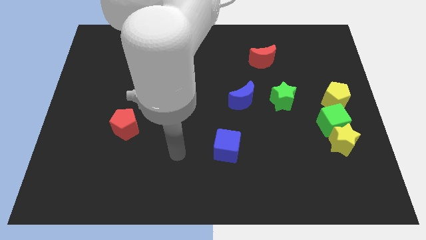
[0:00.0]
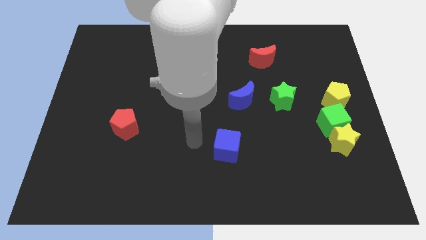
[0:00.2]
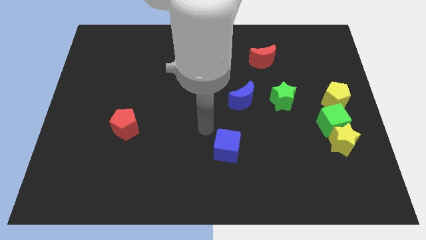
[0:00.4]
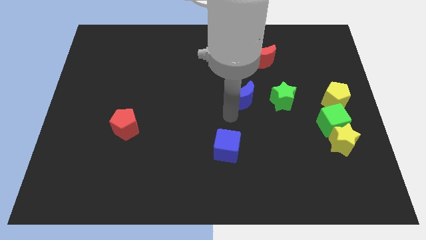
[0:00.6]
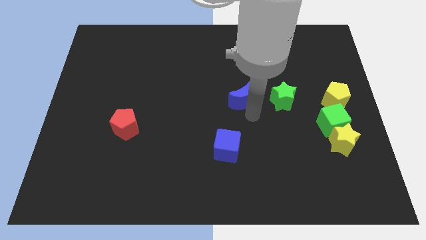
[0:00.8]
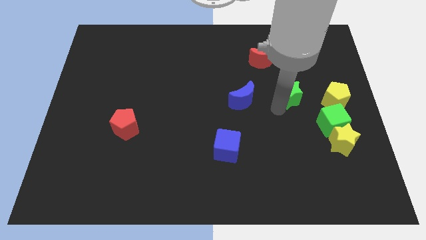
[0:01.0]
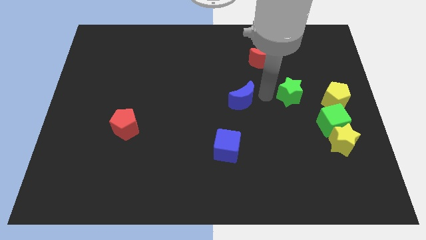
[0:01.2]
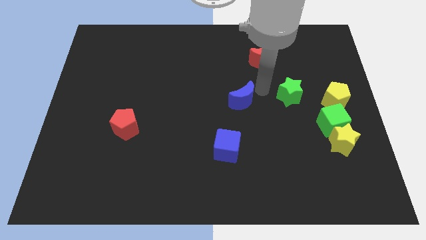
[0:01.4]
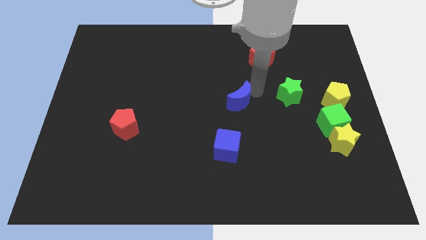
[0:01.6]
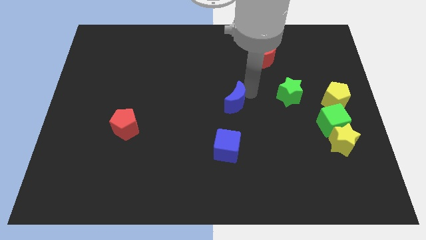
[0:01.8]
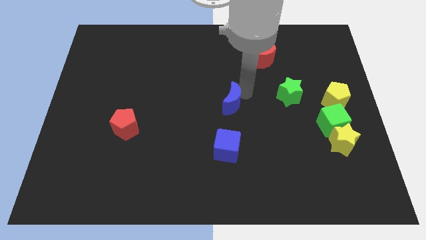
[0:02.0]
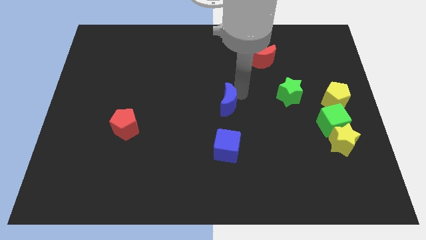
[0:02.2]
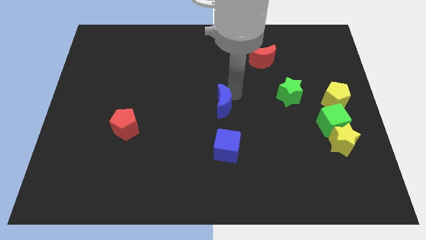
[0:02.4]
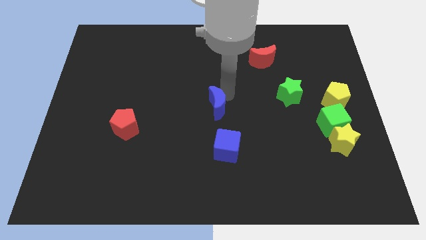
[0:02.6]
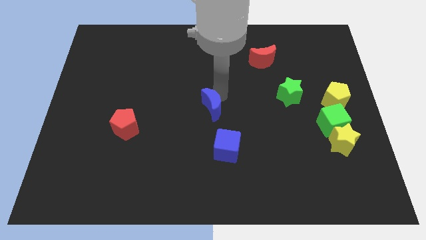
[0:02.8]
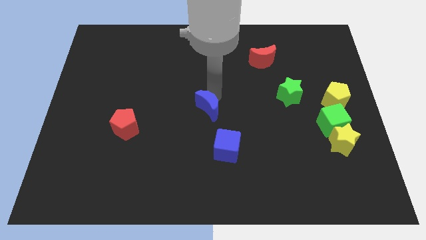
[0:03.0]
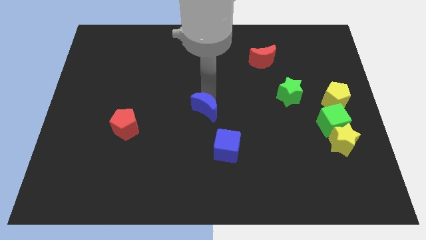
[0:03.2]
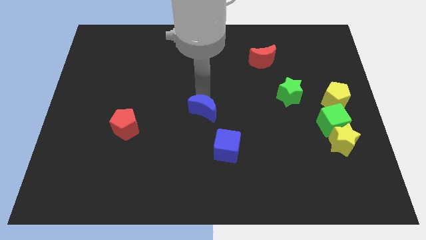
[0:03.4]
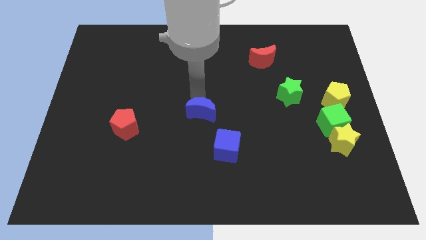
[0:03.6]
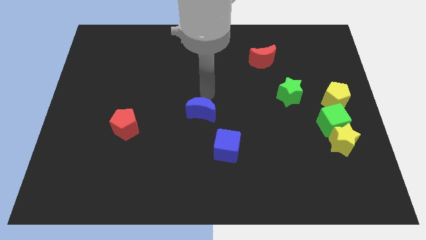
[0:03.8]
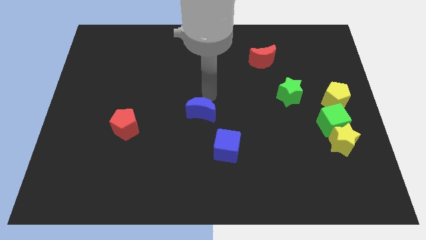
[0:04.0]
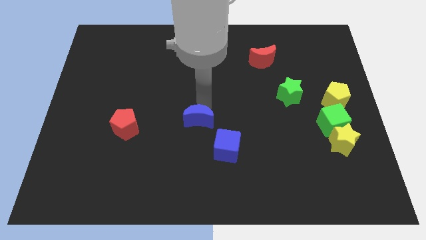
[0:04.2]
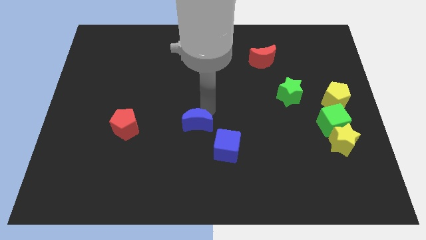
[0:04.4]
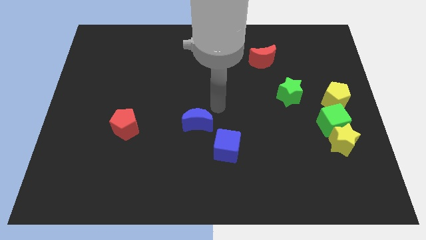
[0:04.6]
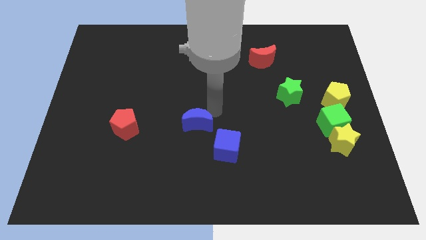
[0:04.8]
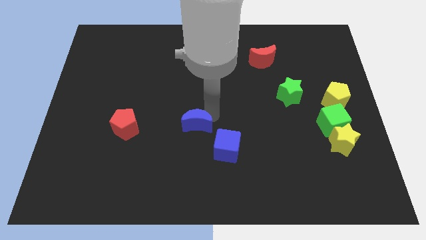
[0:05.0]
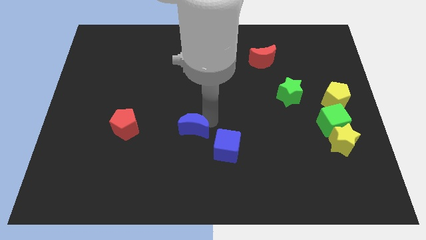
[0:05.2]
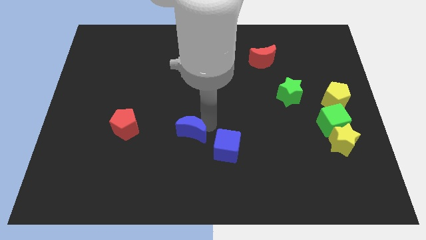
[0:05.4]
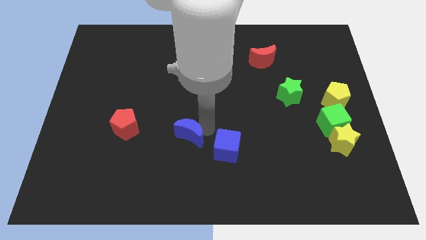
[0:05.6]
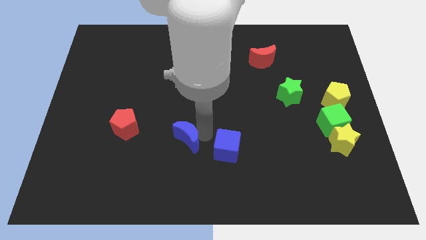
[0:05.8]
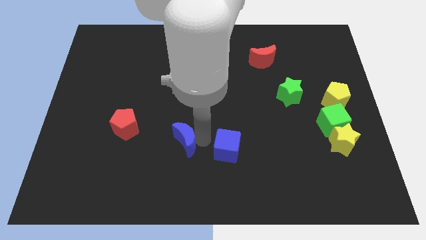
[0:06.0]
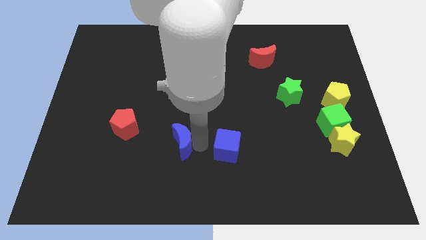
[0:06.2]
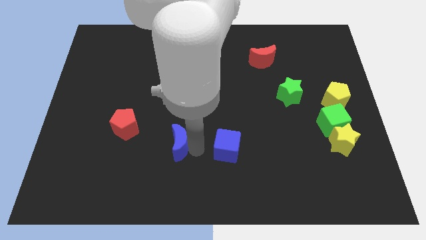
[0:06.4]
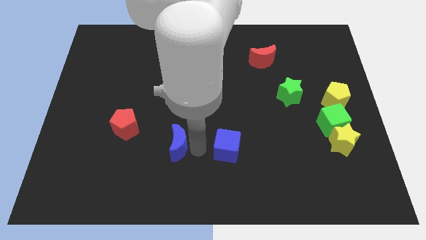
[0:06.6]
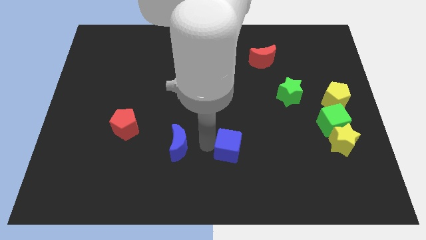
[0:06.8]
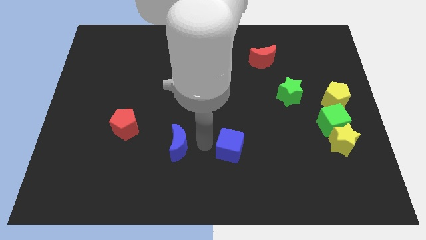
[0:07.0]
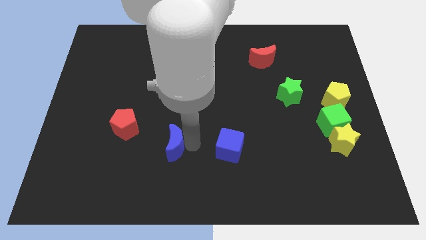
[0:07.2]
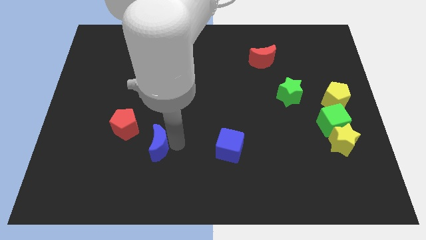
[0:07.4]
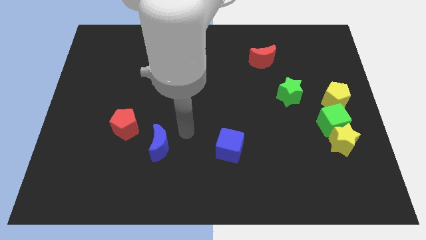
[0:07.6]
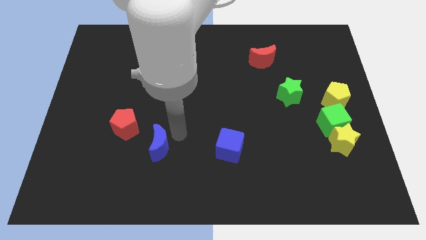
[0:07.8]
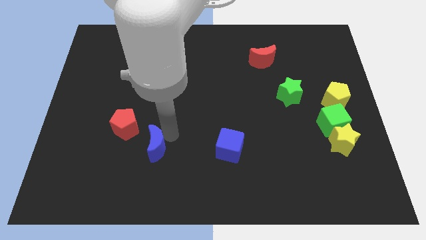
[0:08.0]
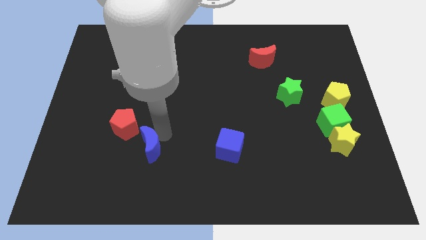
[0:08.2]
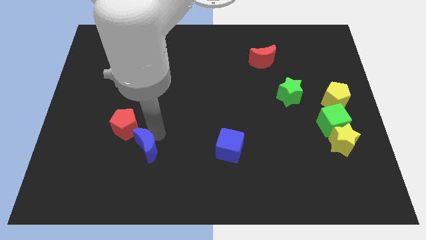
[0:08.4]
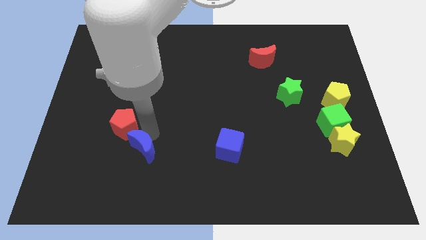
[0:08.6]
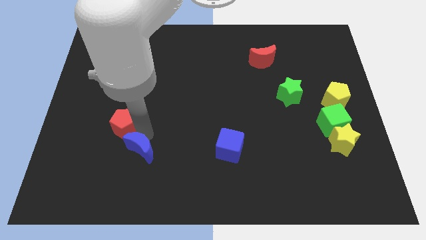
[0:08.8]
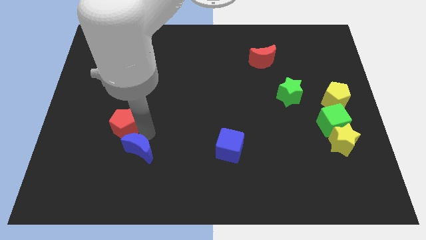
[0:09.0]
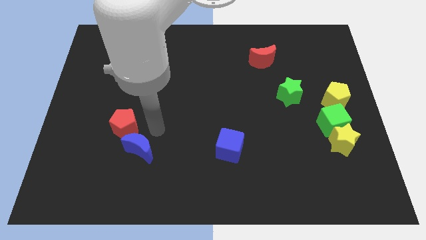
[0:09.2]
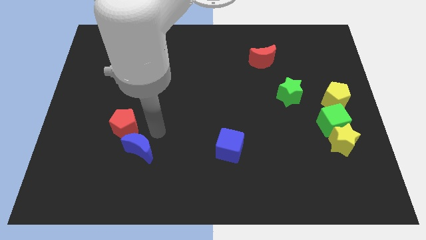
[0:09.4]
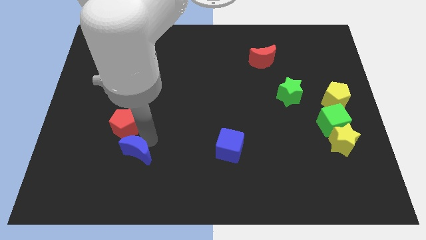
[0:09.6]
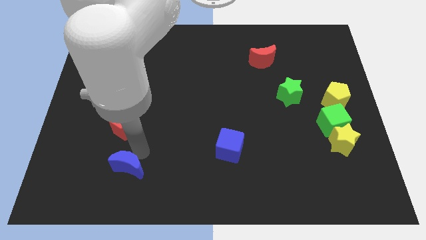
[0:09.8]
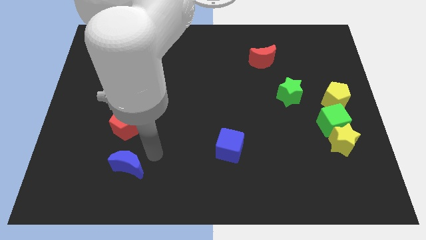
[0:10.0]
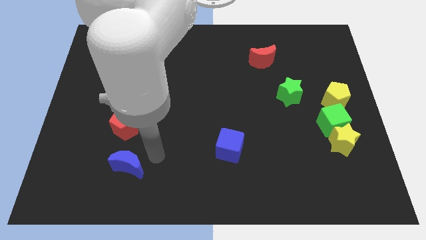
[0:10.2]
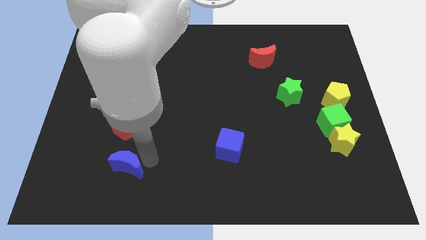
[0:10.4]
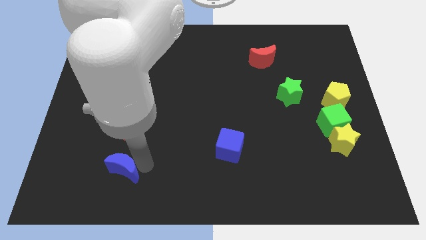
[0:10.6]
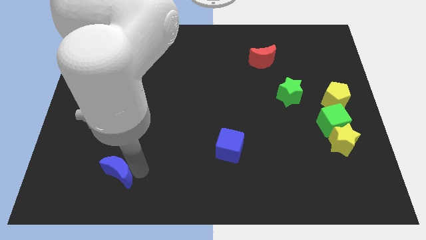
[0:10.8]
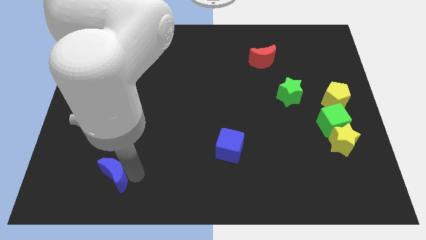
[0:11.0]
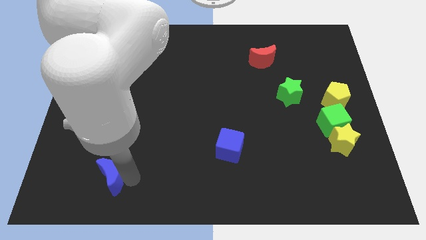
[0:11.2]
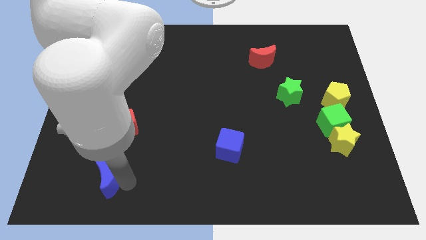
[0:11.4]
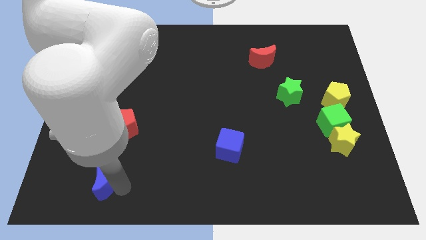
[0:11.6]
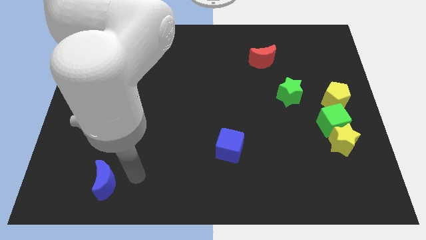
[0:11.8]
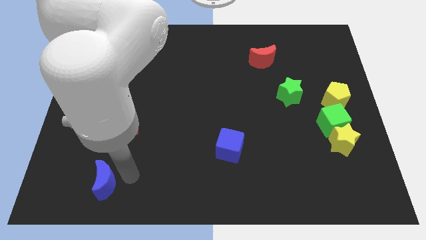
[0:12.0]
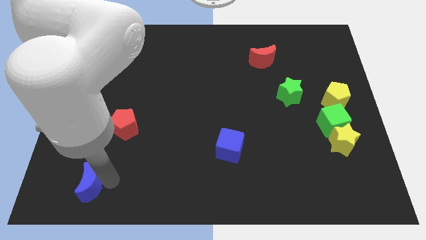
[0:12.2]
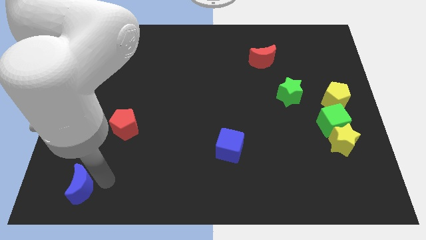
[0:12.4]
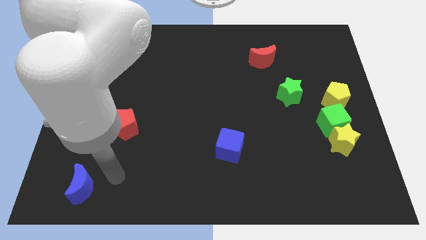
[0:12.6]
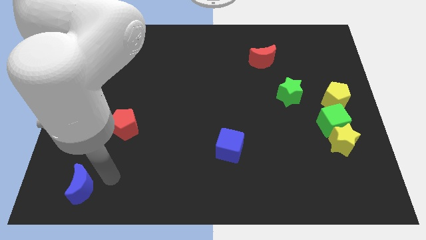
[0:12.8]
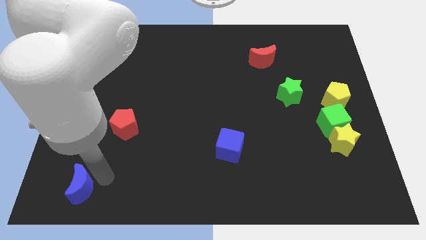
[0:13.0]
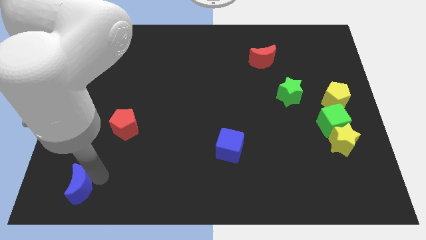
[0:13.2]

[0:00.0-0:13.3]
move the blue moon to the lower left corner
